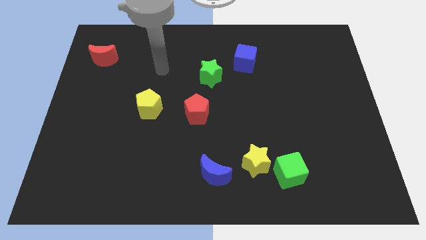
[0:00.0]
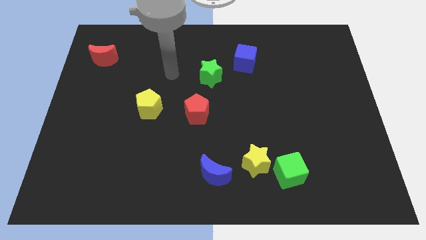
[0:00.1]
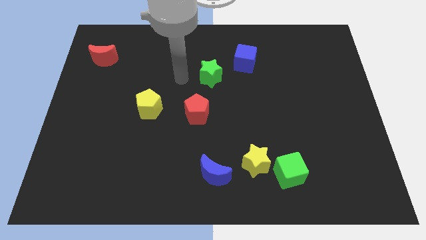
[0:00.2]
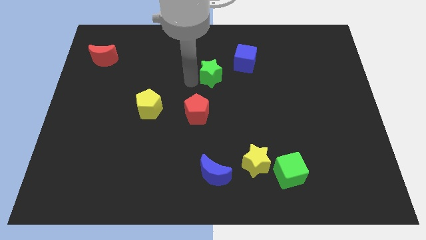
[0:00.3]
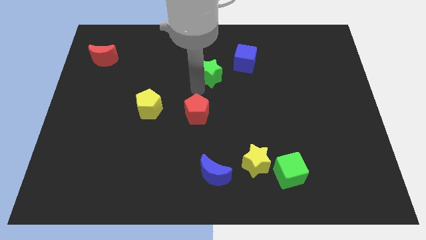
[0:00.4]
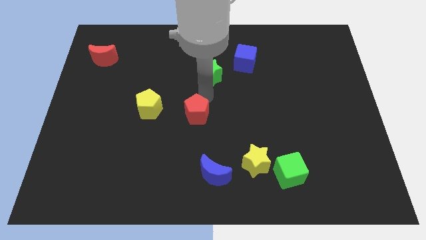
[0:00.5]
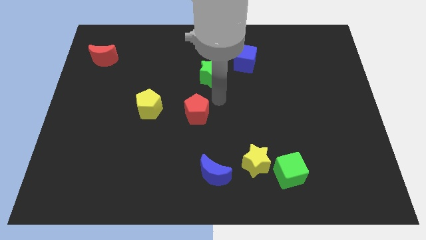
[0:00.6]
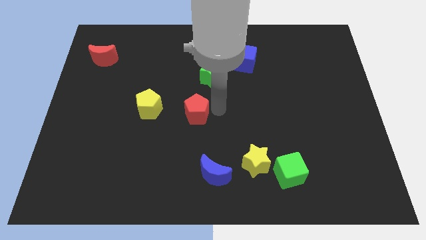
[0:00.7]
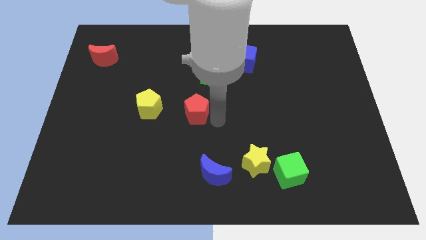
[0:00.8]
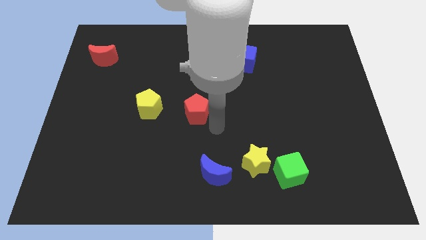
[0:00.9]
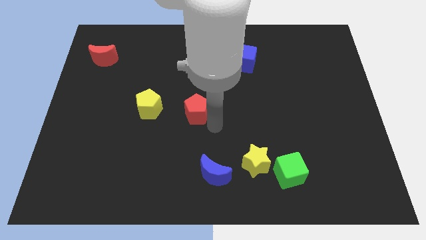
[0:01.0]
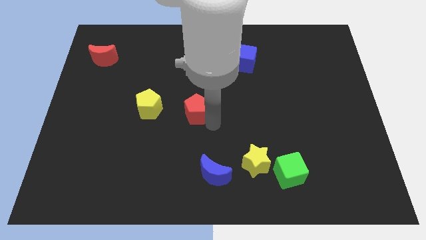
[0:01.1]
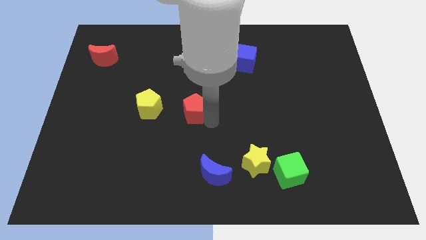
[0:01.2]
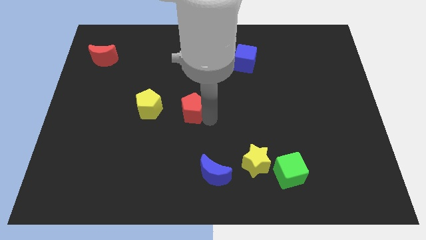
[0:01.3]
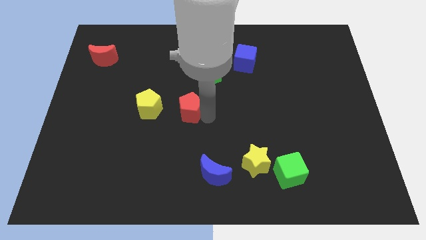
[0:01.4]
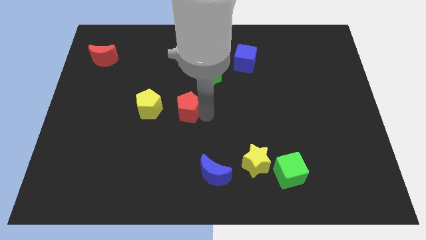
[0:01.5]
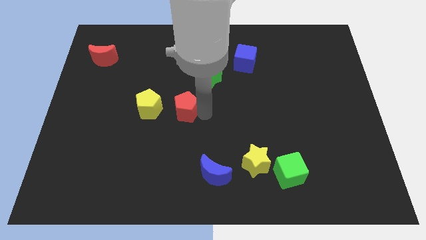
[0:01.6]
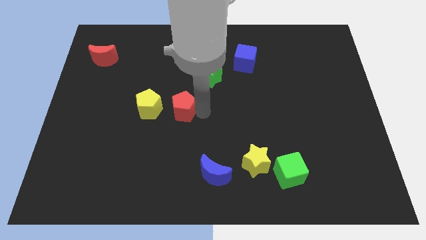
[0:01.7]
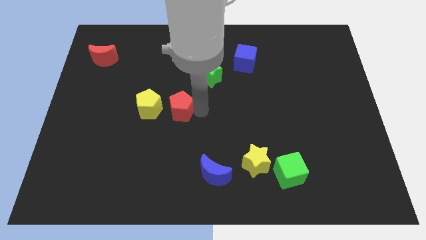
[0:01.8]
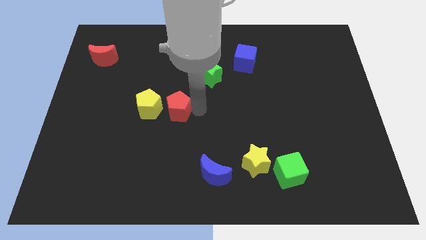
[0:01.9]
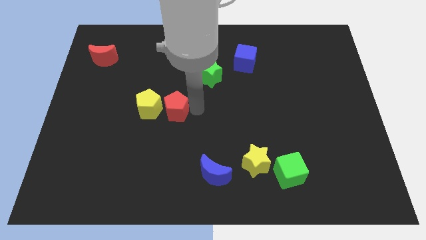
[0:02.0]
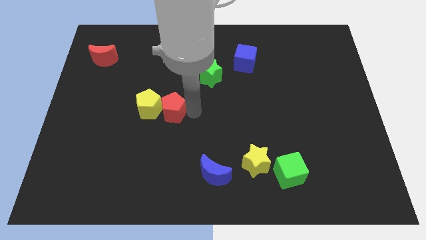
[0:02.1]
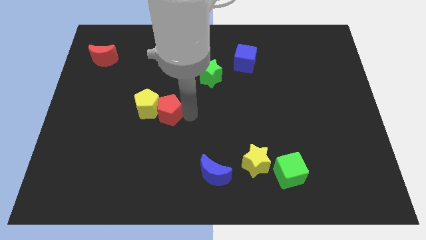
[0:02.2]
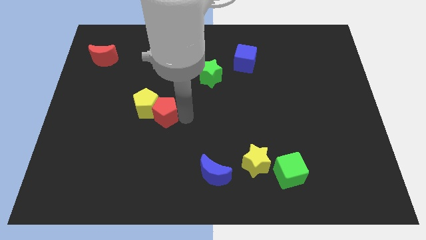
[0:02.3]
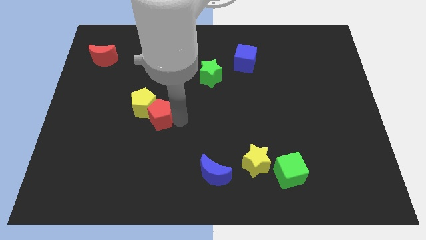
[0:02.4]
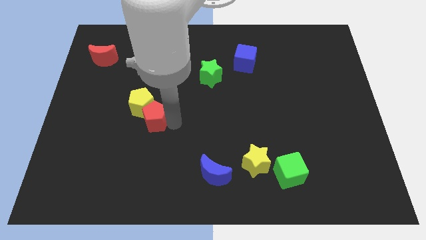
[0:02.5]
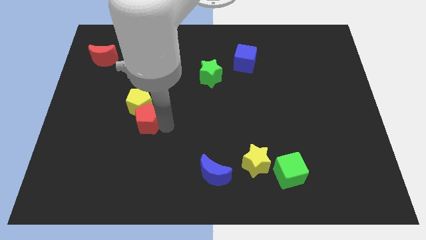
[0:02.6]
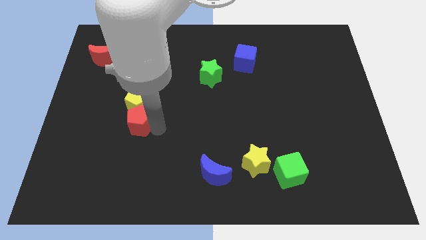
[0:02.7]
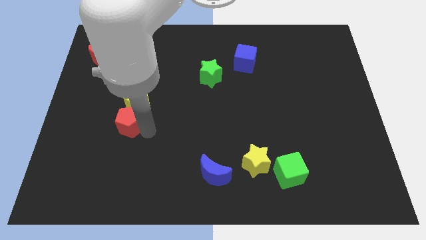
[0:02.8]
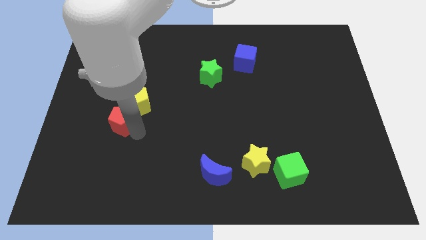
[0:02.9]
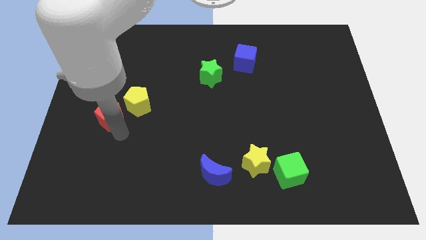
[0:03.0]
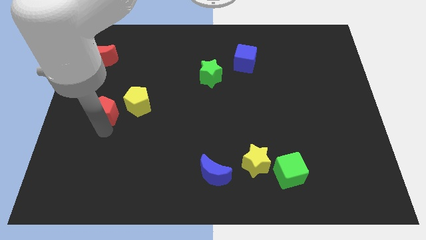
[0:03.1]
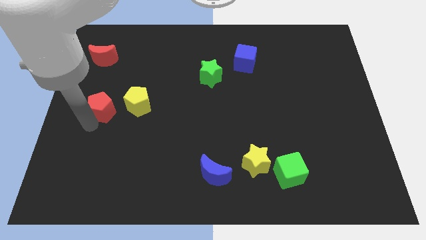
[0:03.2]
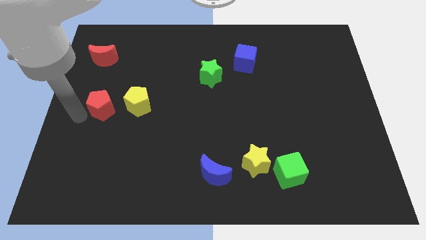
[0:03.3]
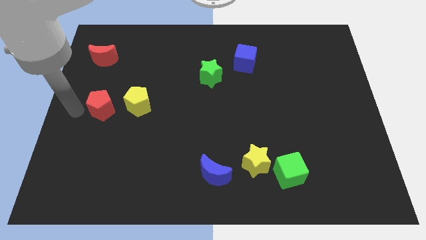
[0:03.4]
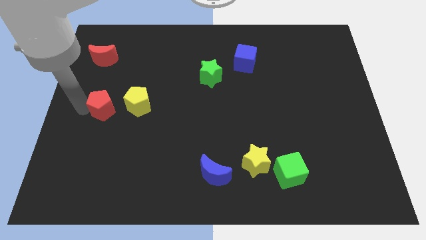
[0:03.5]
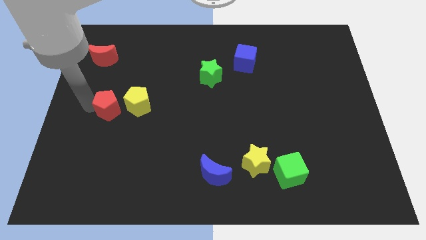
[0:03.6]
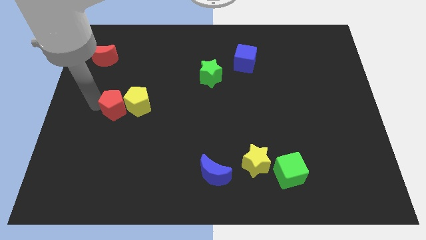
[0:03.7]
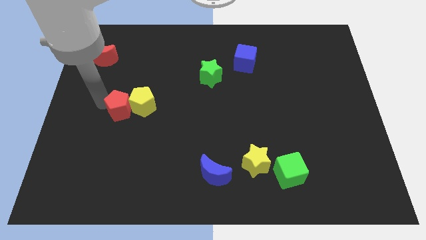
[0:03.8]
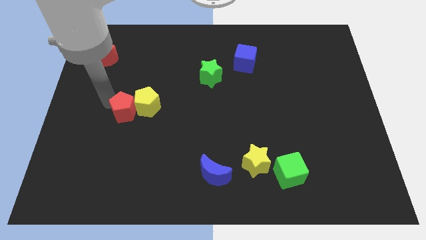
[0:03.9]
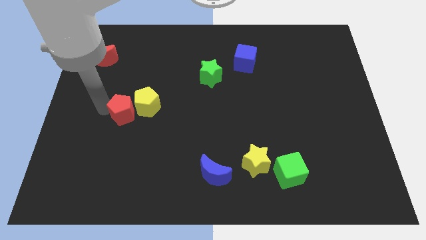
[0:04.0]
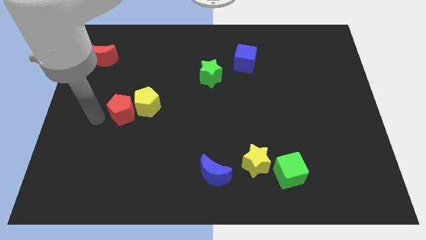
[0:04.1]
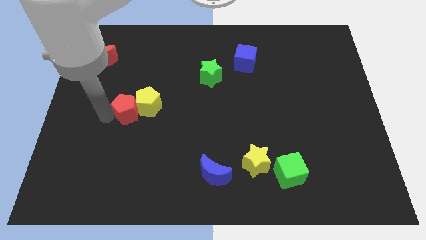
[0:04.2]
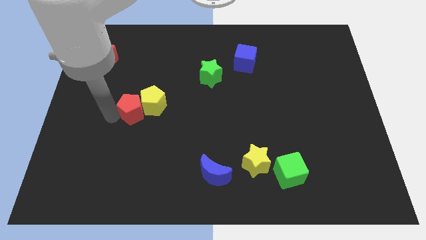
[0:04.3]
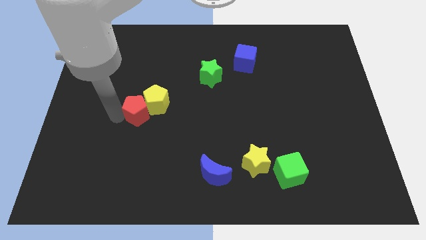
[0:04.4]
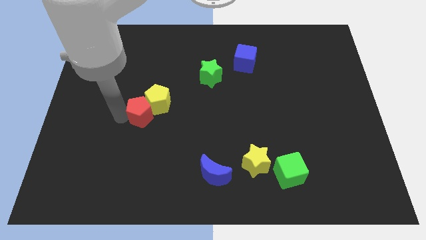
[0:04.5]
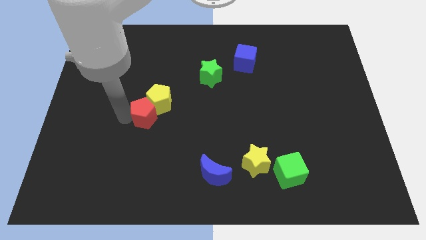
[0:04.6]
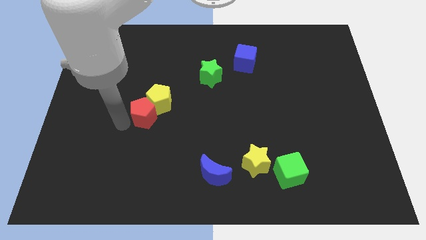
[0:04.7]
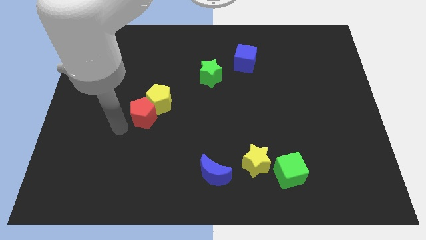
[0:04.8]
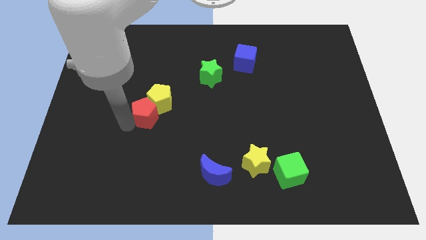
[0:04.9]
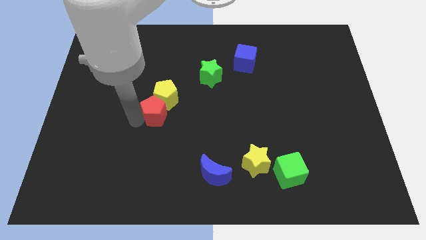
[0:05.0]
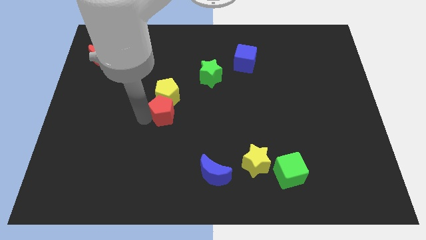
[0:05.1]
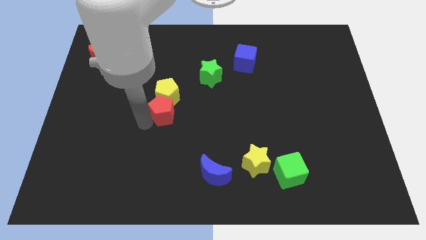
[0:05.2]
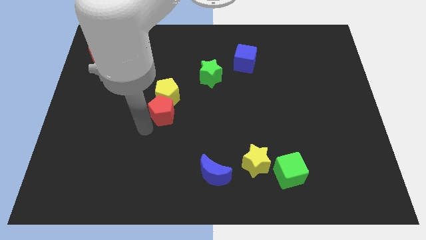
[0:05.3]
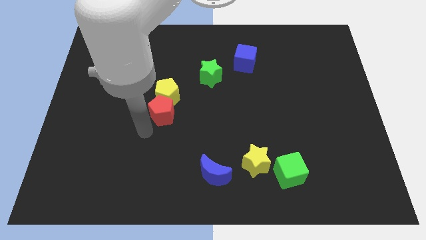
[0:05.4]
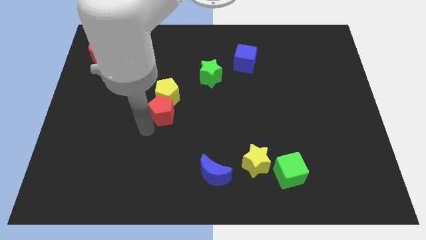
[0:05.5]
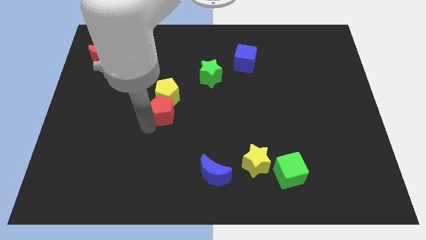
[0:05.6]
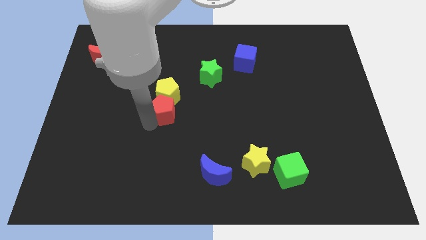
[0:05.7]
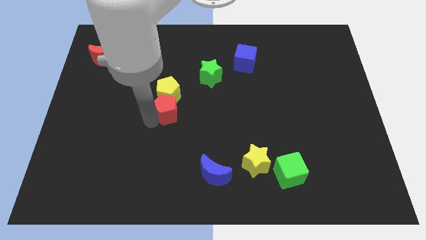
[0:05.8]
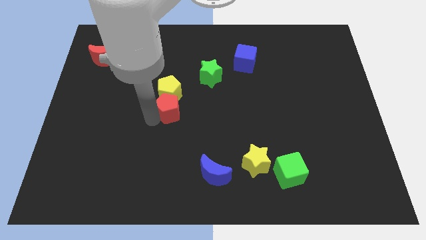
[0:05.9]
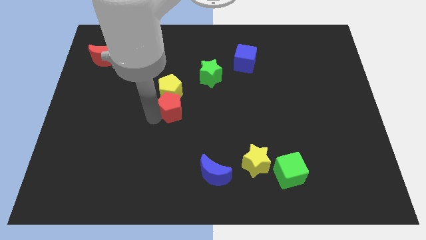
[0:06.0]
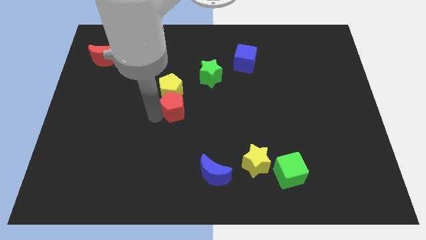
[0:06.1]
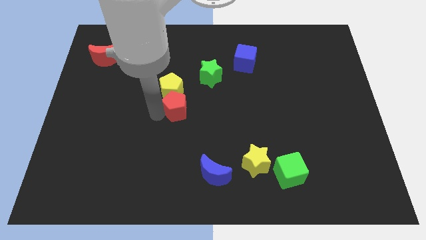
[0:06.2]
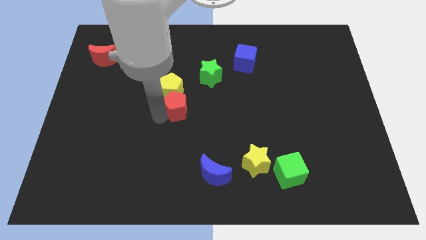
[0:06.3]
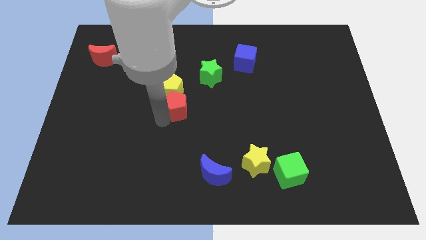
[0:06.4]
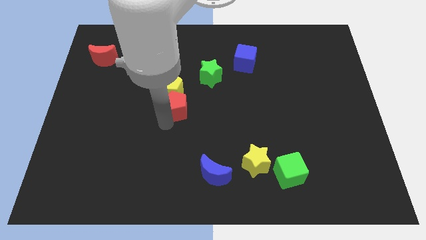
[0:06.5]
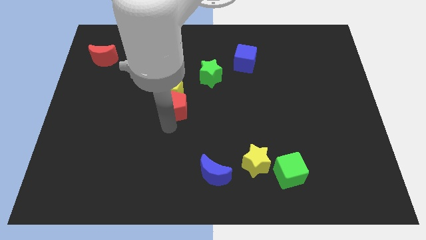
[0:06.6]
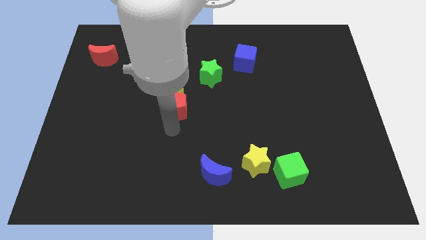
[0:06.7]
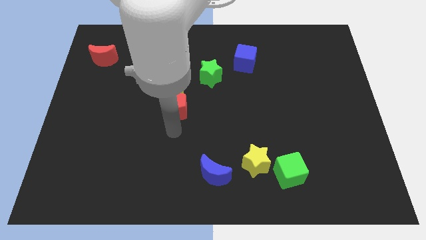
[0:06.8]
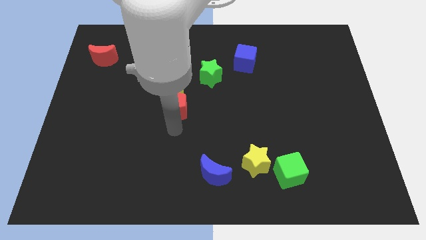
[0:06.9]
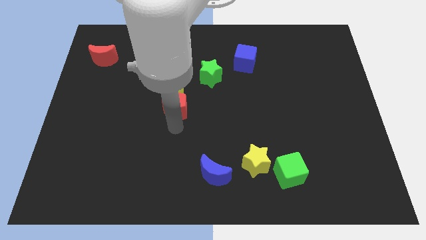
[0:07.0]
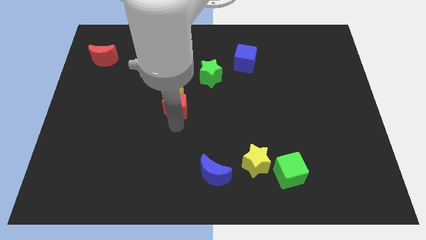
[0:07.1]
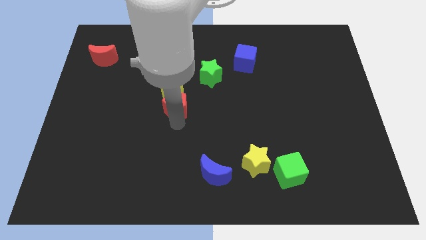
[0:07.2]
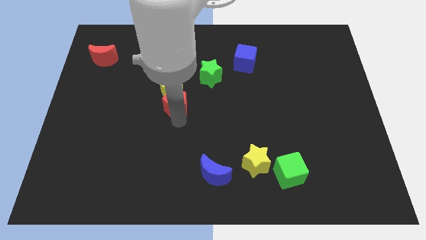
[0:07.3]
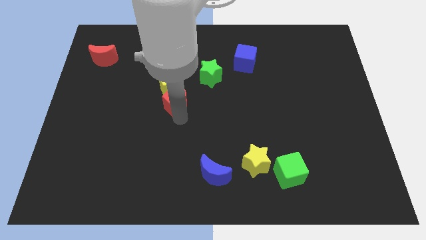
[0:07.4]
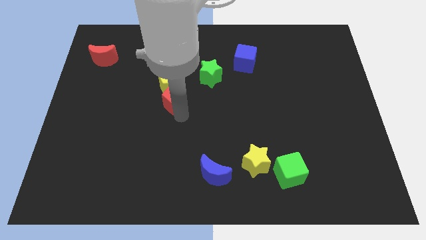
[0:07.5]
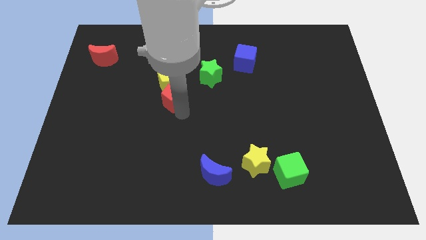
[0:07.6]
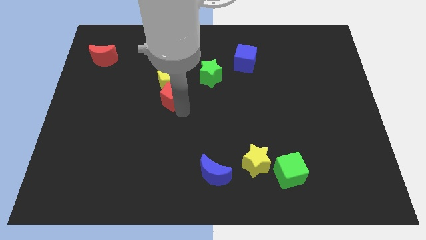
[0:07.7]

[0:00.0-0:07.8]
slide the red pentagon a little bit diagonally up and to the left
